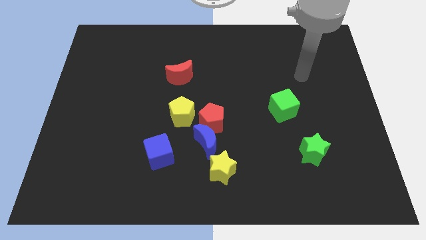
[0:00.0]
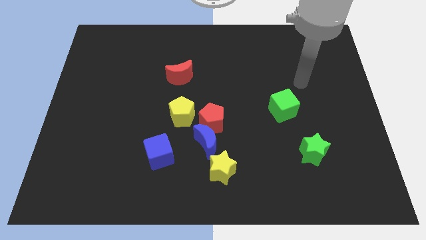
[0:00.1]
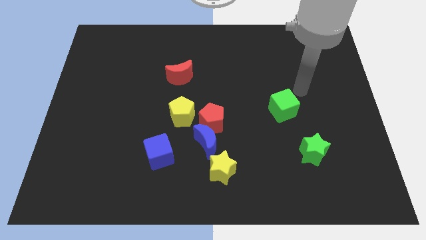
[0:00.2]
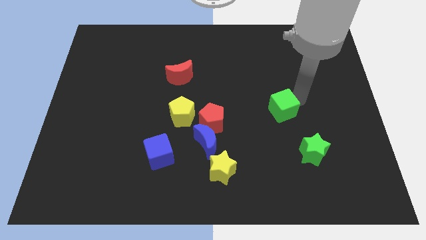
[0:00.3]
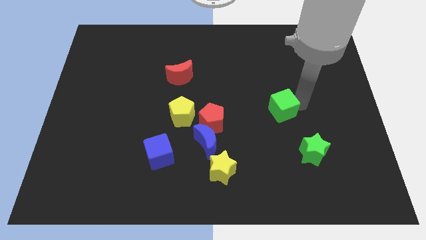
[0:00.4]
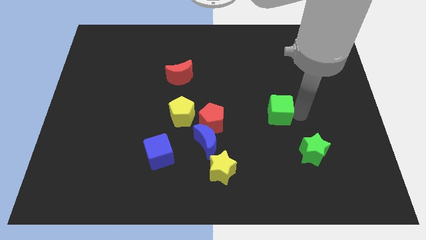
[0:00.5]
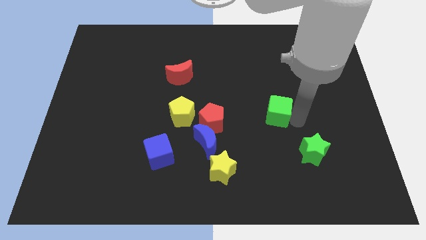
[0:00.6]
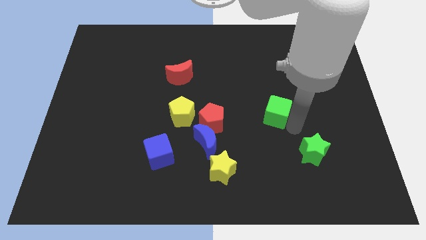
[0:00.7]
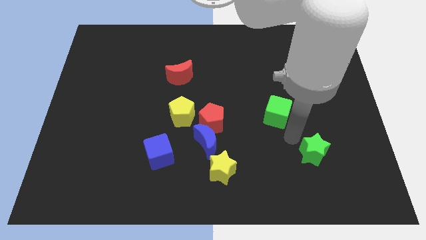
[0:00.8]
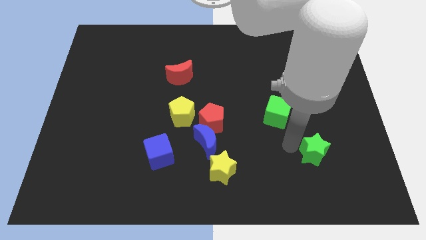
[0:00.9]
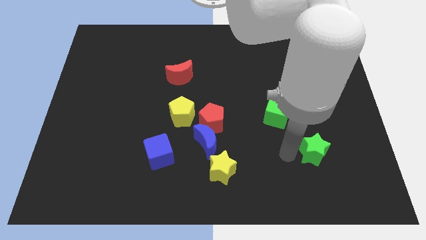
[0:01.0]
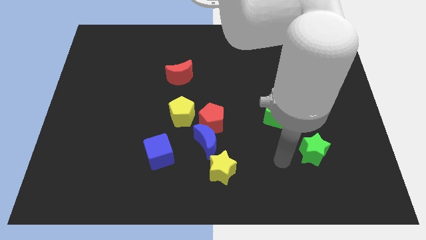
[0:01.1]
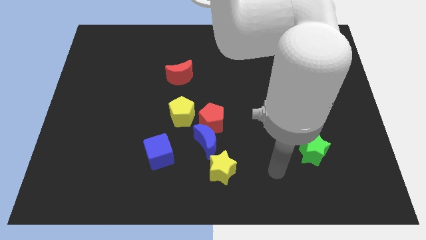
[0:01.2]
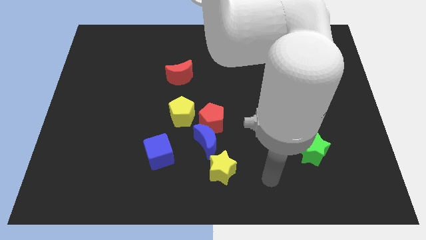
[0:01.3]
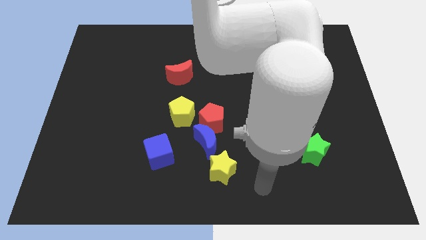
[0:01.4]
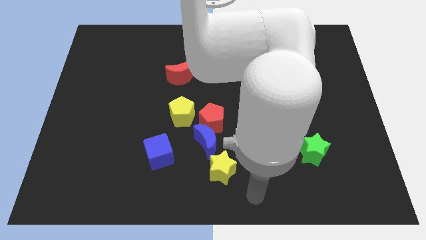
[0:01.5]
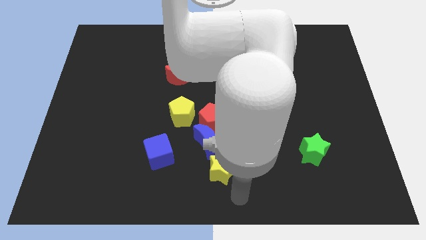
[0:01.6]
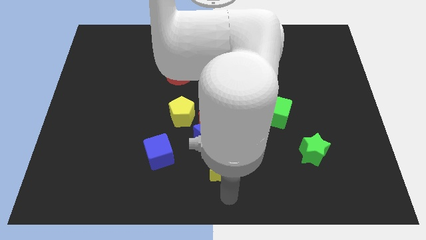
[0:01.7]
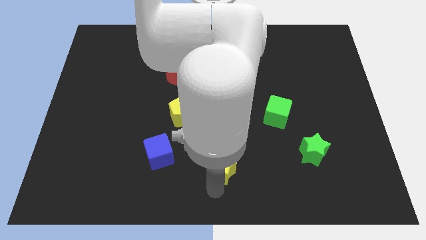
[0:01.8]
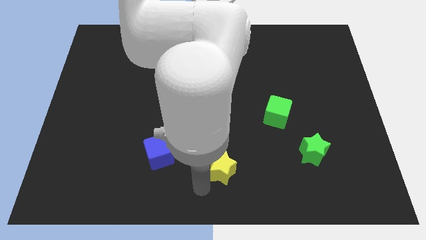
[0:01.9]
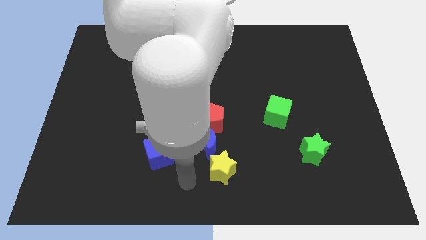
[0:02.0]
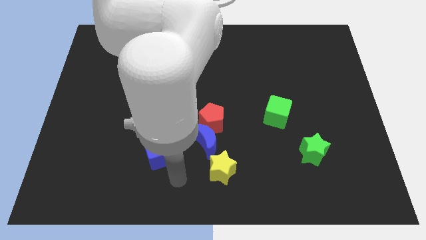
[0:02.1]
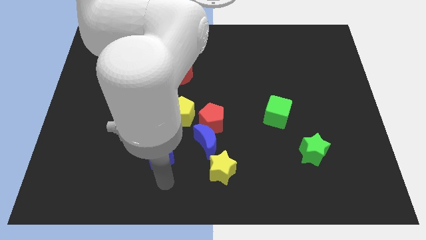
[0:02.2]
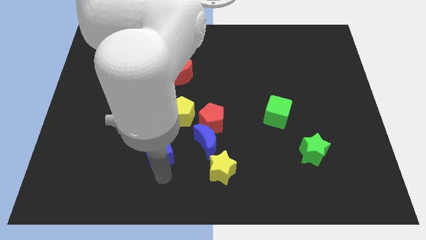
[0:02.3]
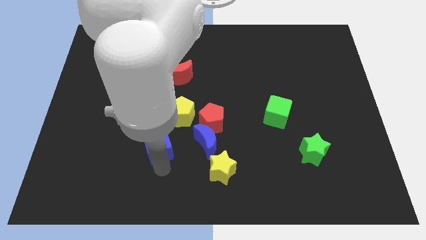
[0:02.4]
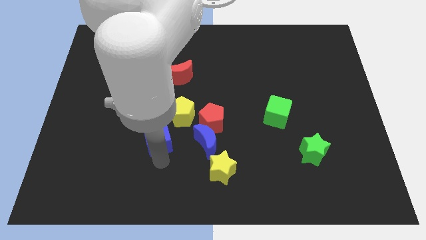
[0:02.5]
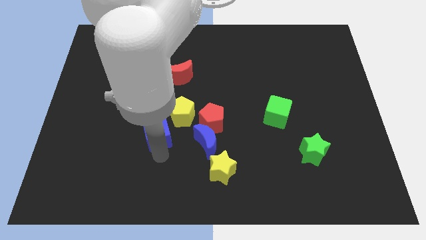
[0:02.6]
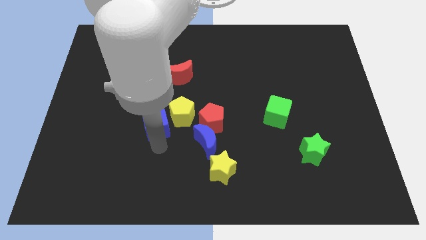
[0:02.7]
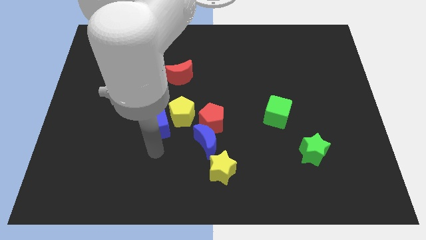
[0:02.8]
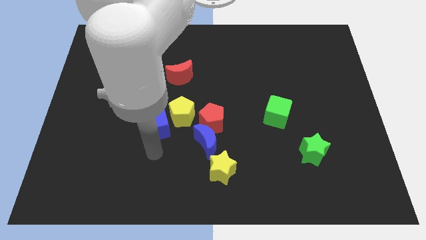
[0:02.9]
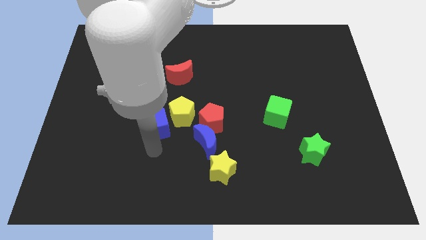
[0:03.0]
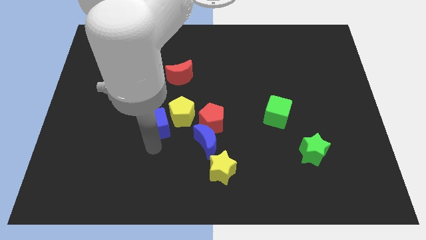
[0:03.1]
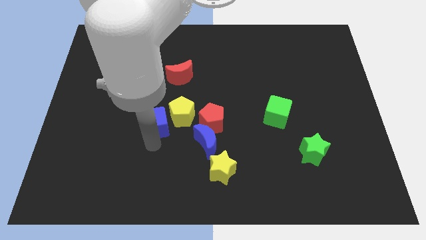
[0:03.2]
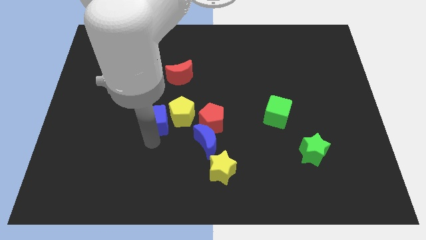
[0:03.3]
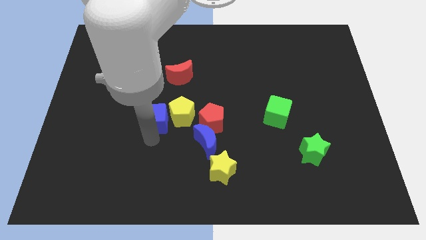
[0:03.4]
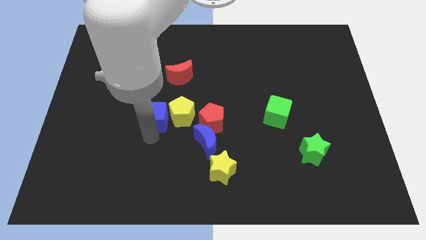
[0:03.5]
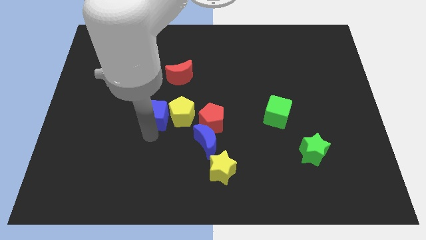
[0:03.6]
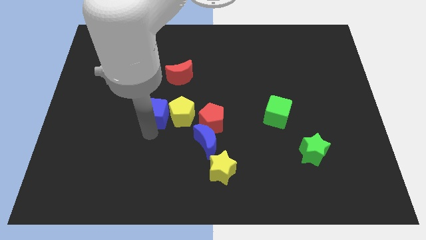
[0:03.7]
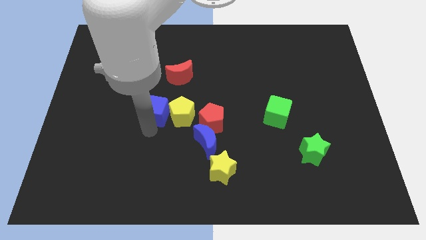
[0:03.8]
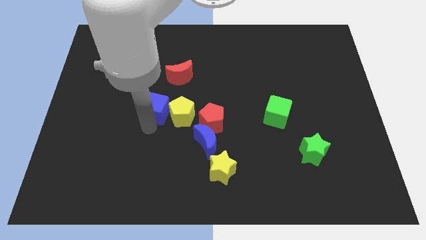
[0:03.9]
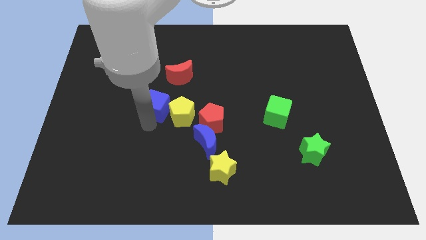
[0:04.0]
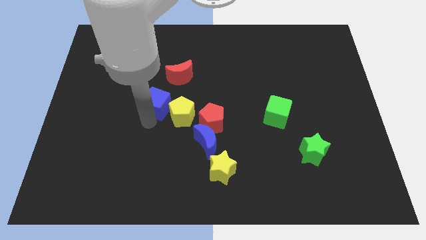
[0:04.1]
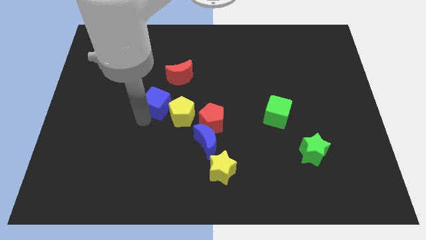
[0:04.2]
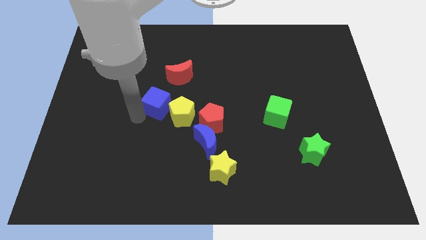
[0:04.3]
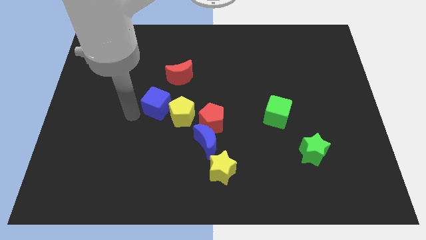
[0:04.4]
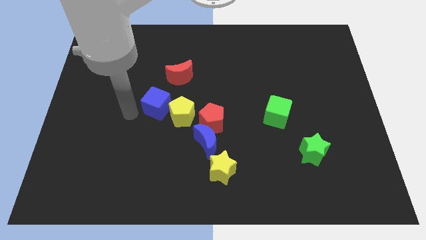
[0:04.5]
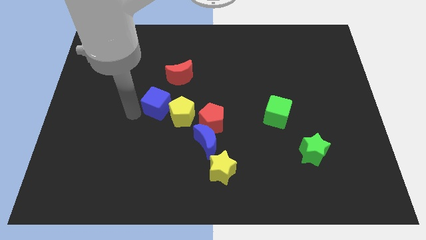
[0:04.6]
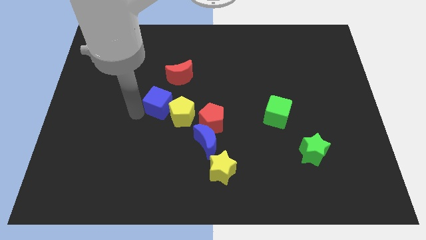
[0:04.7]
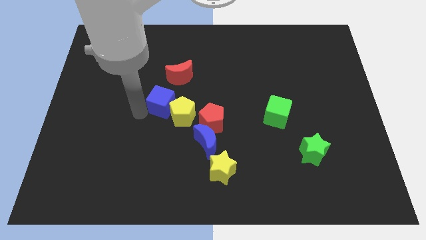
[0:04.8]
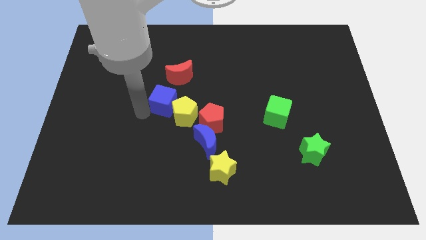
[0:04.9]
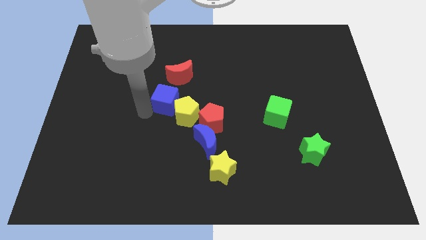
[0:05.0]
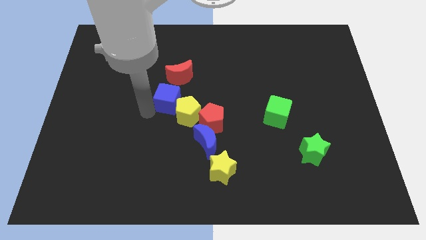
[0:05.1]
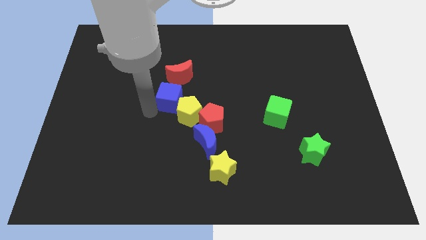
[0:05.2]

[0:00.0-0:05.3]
slide the blue cube a little diagonally upwards and right

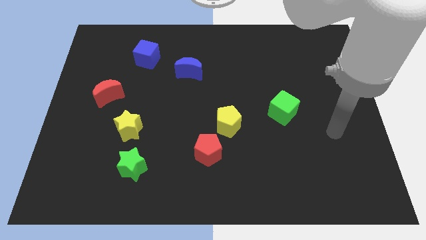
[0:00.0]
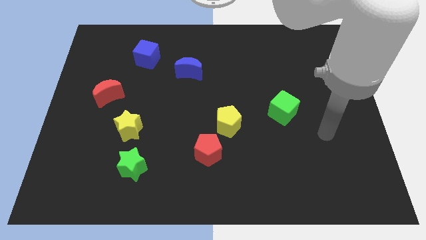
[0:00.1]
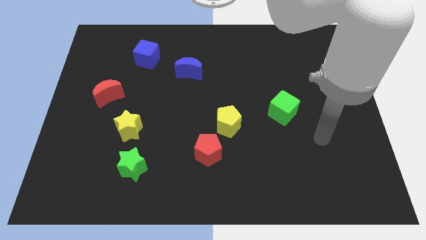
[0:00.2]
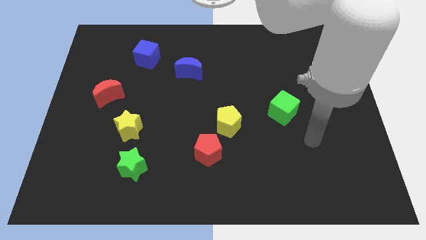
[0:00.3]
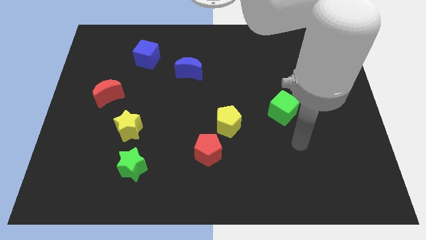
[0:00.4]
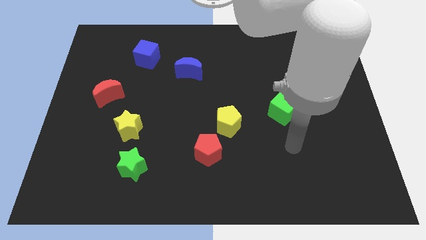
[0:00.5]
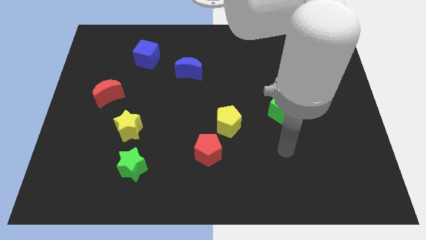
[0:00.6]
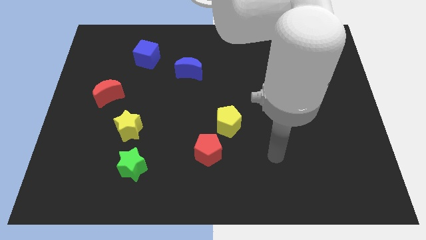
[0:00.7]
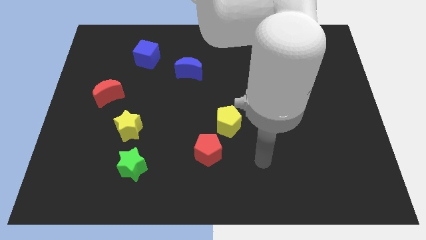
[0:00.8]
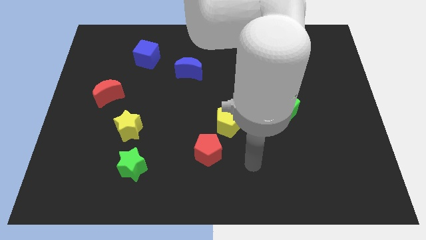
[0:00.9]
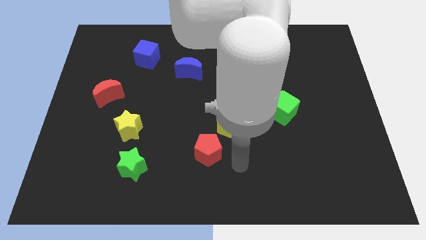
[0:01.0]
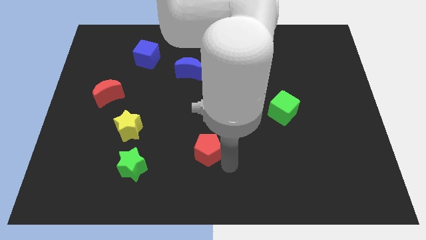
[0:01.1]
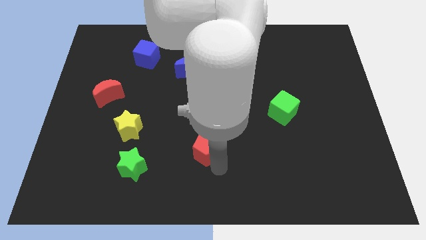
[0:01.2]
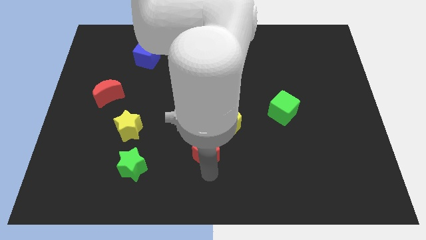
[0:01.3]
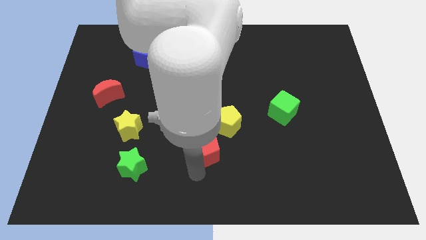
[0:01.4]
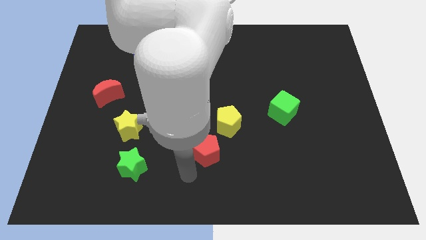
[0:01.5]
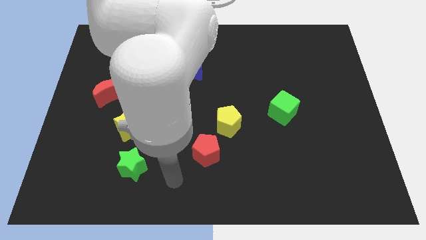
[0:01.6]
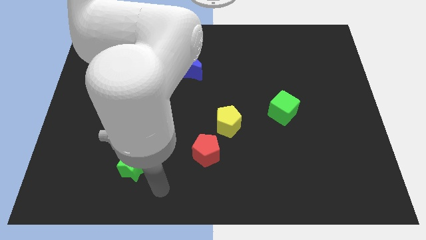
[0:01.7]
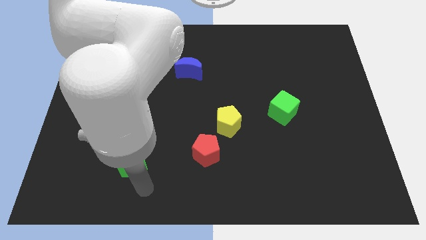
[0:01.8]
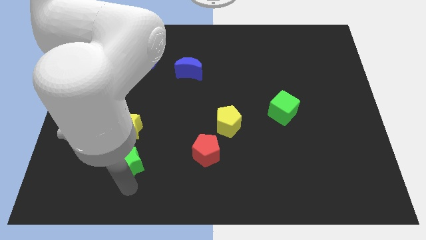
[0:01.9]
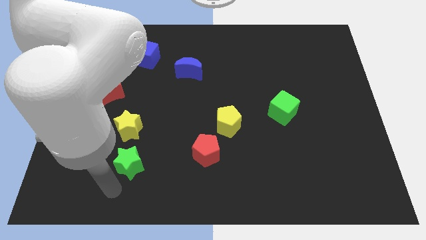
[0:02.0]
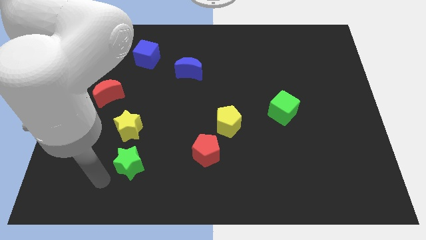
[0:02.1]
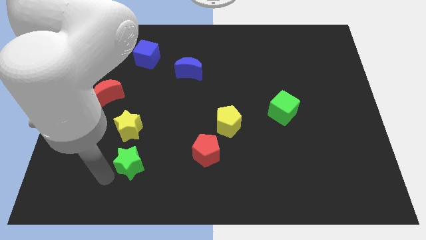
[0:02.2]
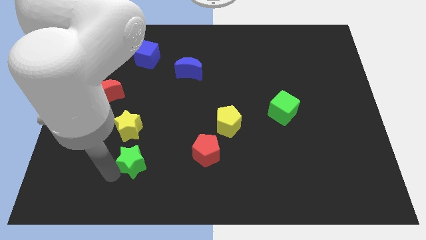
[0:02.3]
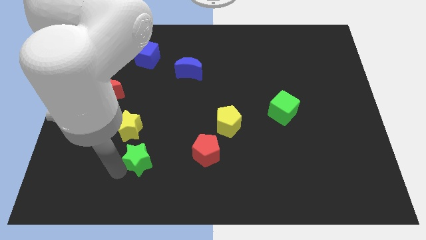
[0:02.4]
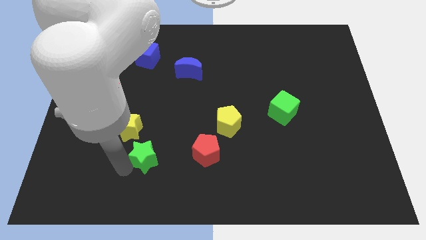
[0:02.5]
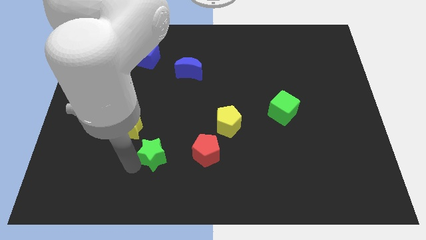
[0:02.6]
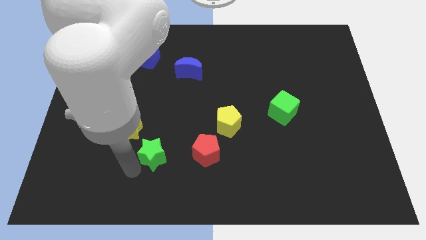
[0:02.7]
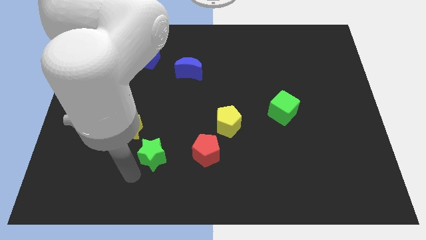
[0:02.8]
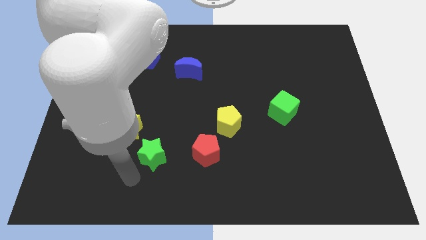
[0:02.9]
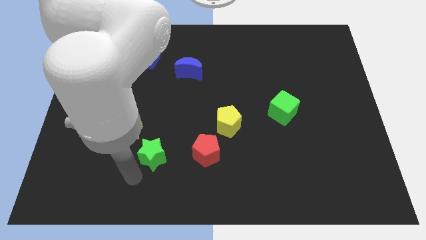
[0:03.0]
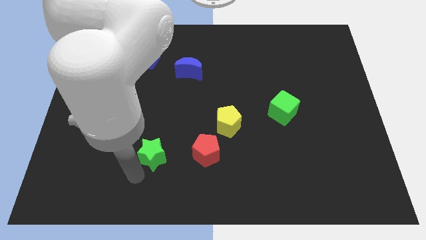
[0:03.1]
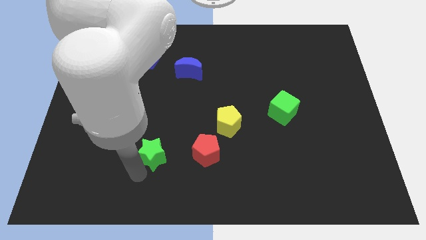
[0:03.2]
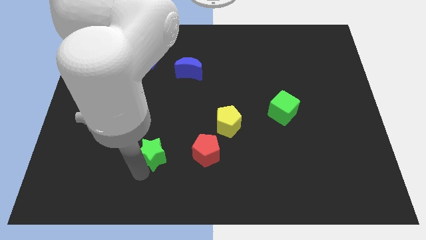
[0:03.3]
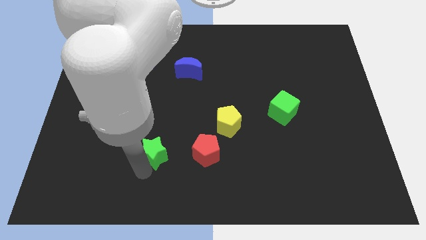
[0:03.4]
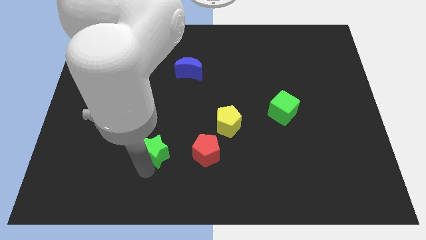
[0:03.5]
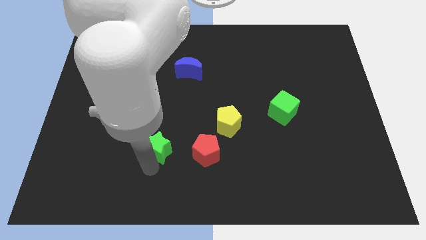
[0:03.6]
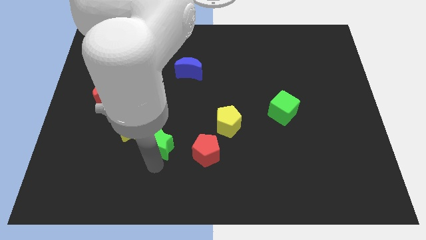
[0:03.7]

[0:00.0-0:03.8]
move the green star a little bit upwards and right
